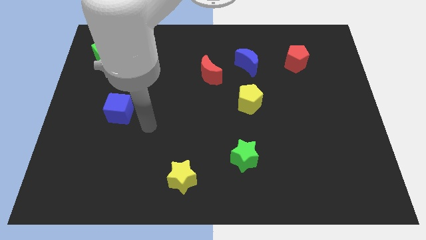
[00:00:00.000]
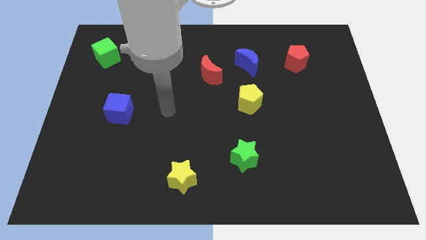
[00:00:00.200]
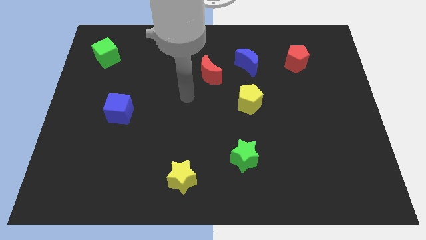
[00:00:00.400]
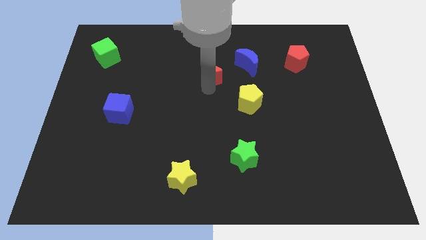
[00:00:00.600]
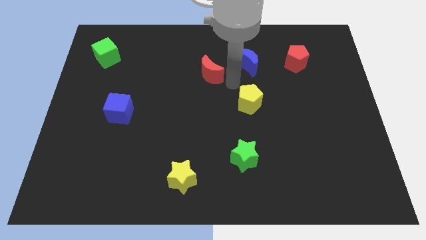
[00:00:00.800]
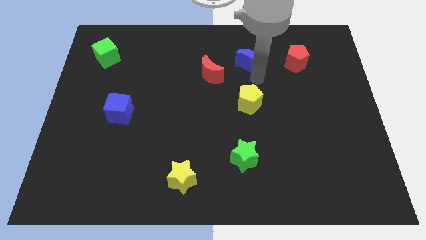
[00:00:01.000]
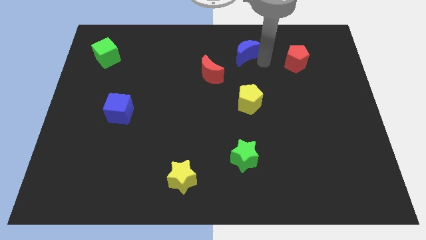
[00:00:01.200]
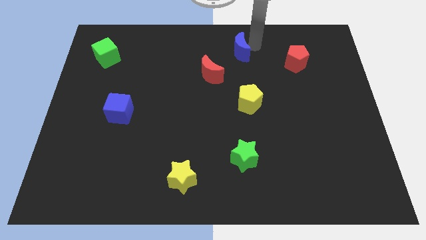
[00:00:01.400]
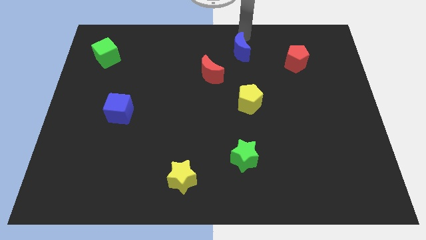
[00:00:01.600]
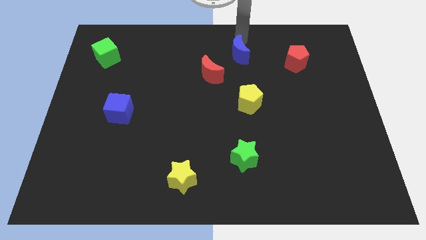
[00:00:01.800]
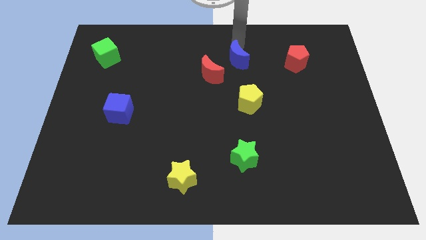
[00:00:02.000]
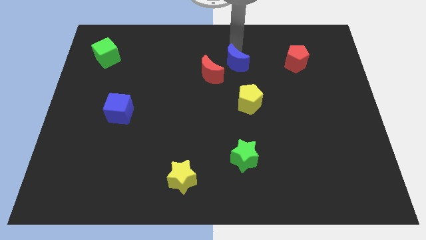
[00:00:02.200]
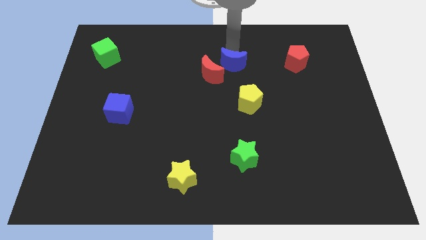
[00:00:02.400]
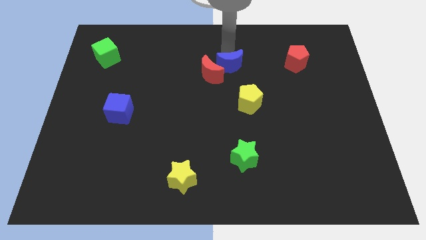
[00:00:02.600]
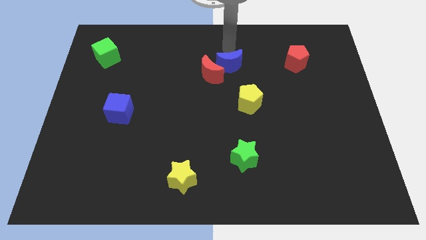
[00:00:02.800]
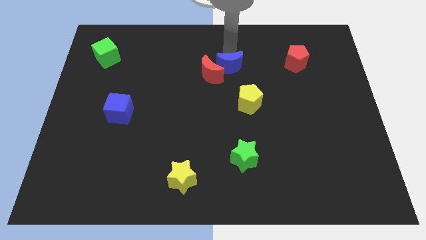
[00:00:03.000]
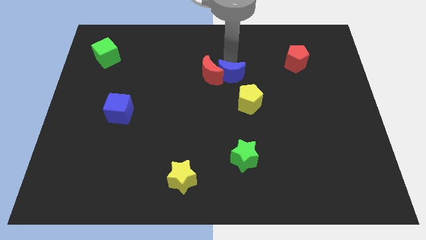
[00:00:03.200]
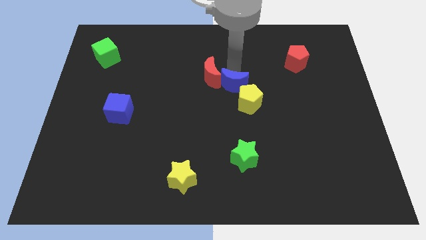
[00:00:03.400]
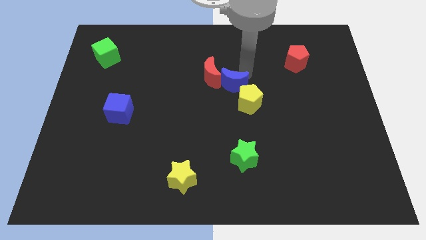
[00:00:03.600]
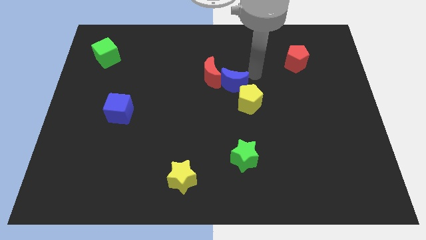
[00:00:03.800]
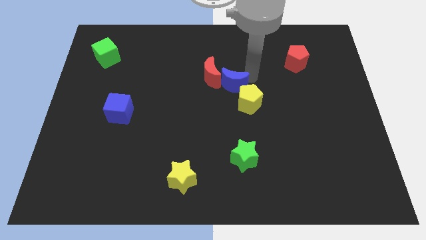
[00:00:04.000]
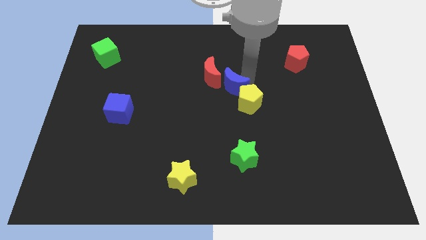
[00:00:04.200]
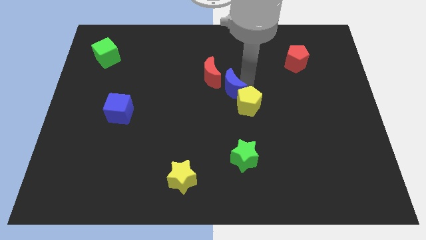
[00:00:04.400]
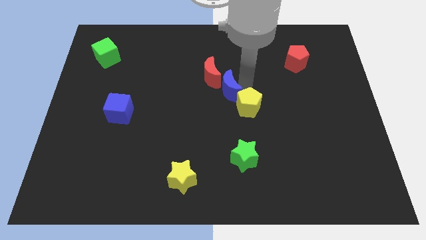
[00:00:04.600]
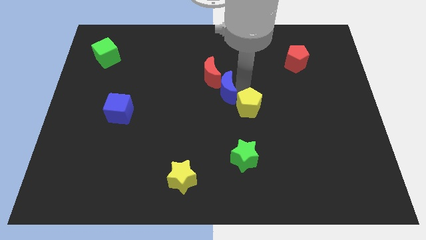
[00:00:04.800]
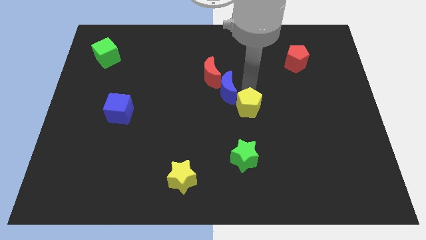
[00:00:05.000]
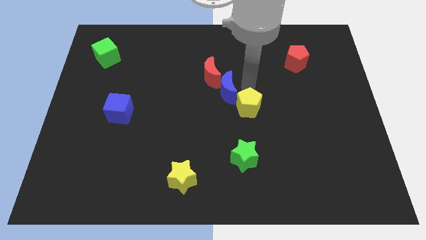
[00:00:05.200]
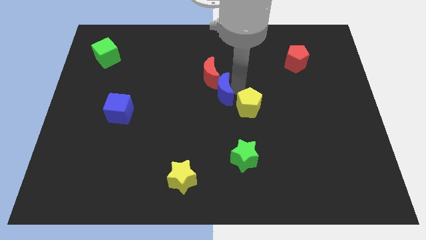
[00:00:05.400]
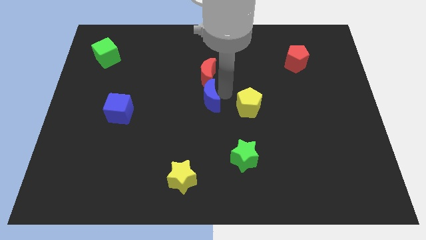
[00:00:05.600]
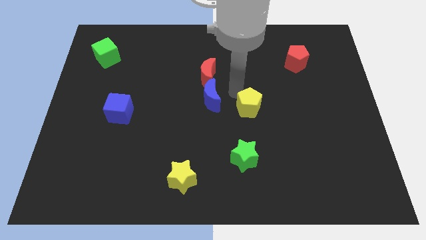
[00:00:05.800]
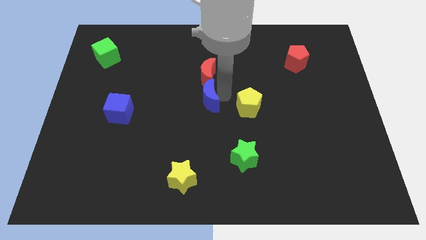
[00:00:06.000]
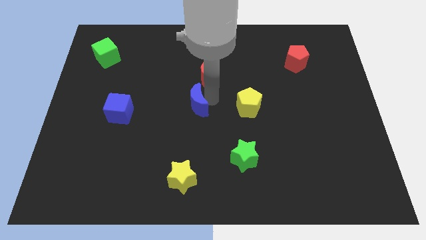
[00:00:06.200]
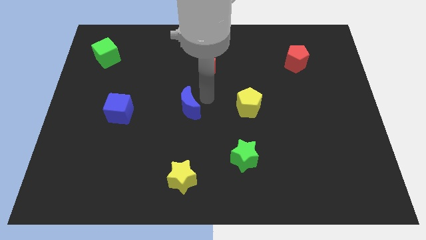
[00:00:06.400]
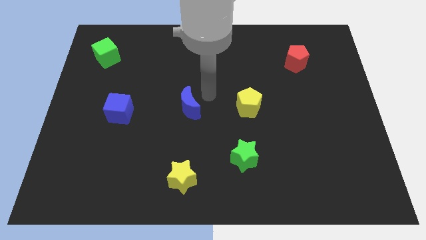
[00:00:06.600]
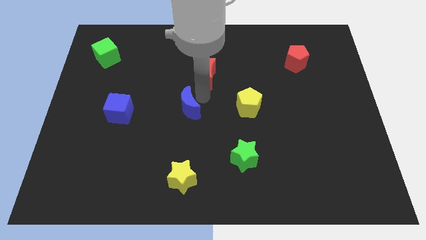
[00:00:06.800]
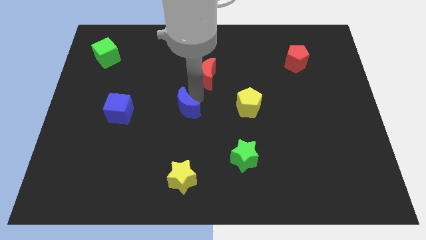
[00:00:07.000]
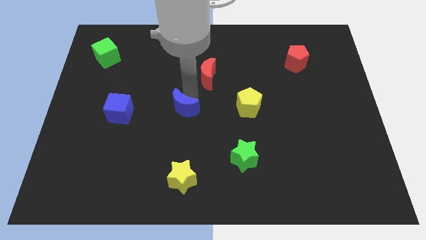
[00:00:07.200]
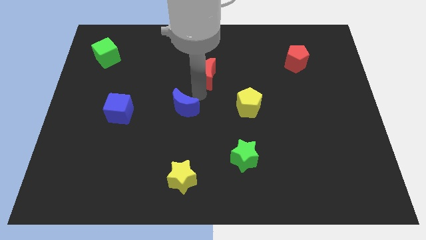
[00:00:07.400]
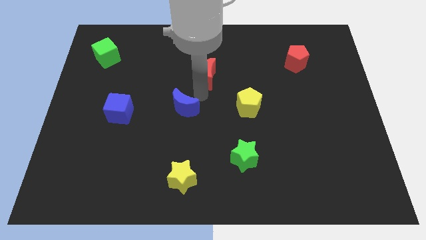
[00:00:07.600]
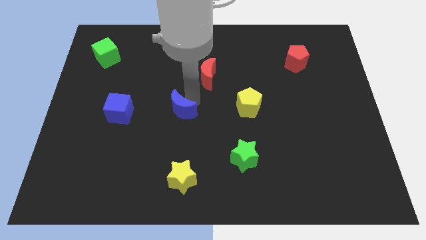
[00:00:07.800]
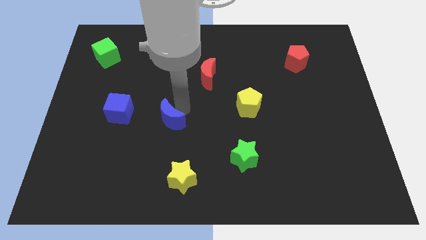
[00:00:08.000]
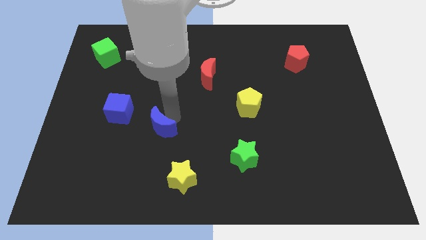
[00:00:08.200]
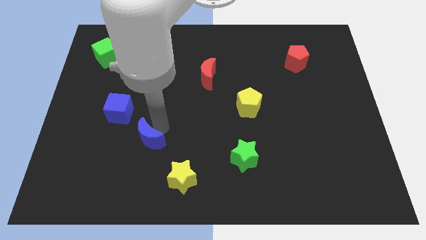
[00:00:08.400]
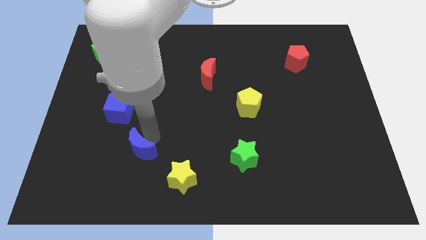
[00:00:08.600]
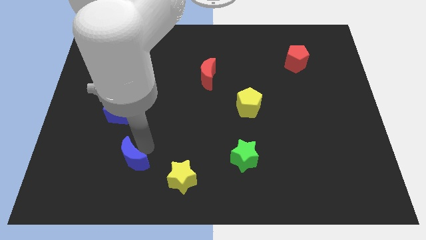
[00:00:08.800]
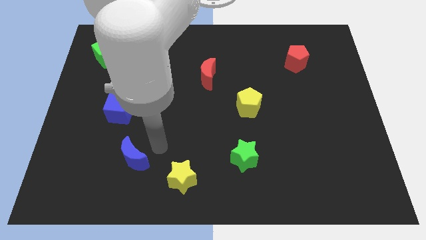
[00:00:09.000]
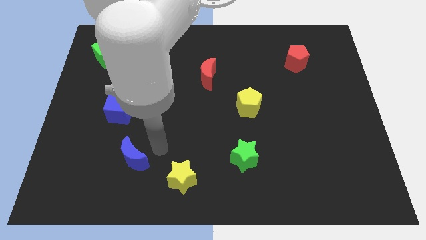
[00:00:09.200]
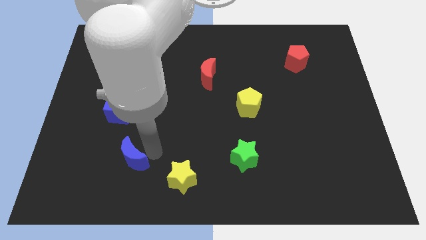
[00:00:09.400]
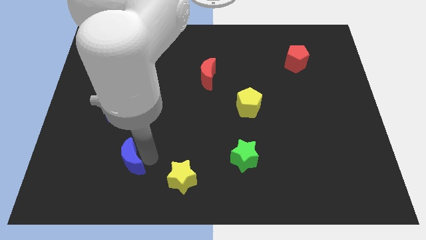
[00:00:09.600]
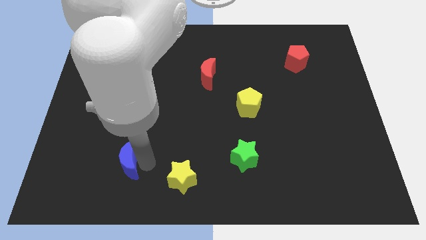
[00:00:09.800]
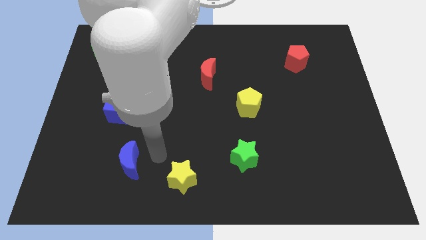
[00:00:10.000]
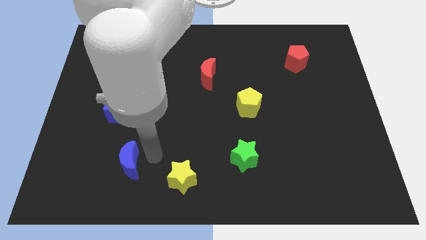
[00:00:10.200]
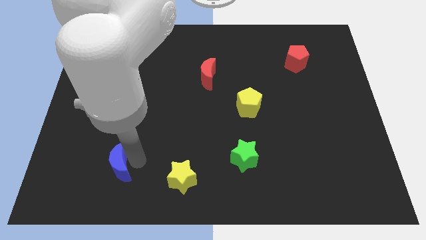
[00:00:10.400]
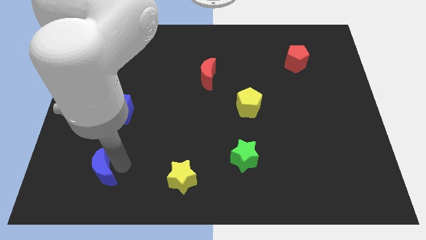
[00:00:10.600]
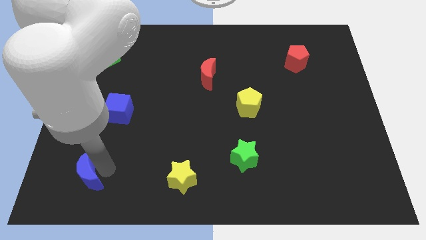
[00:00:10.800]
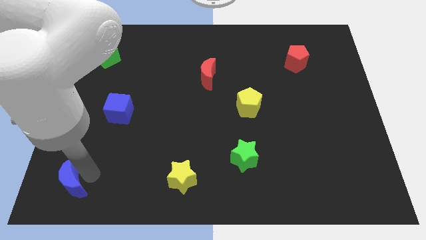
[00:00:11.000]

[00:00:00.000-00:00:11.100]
move the blue moon to the lower left corner

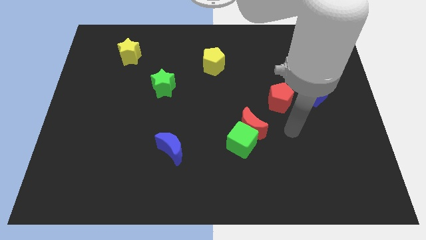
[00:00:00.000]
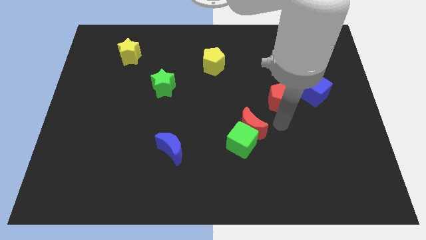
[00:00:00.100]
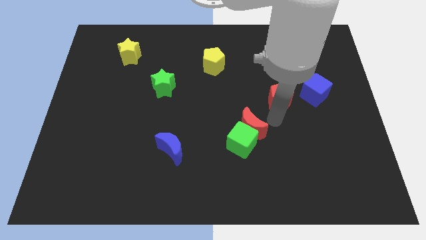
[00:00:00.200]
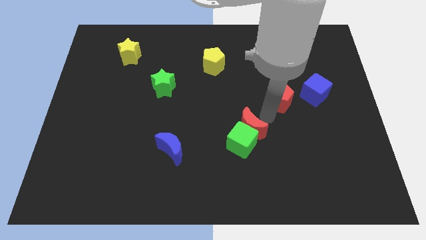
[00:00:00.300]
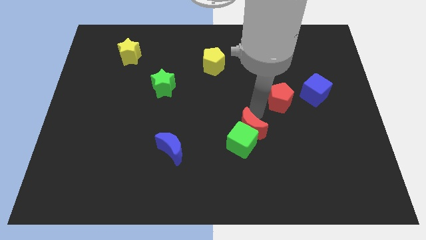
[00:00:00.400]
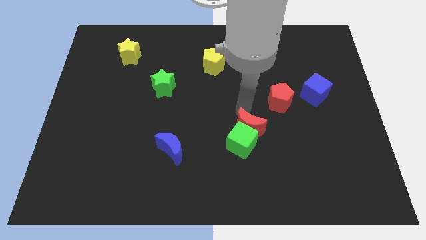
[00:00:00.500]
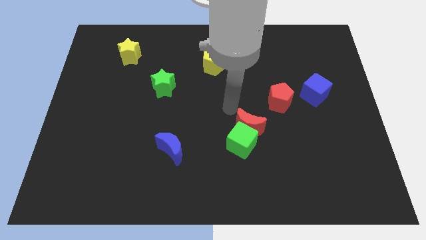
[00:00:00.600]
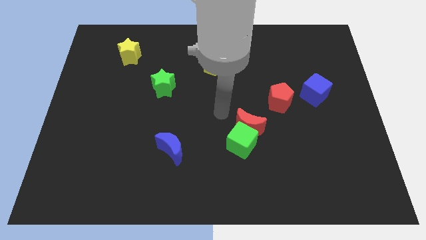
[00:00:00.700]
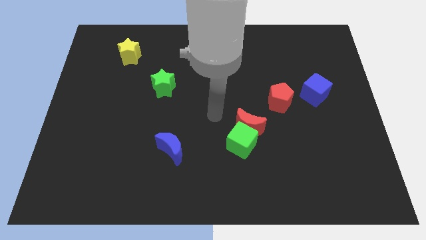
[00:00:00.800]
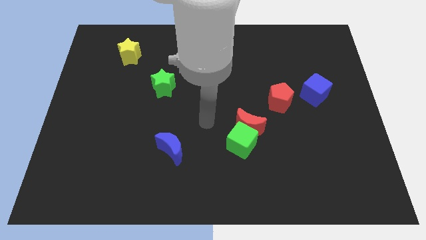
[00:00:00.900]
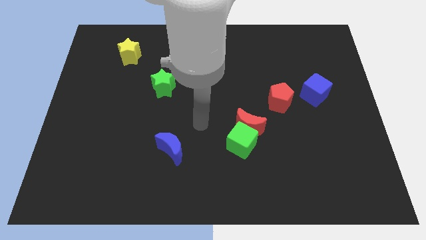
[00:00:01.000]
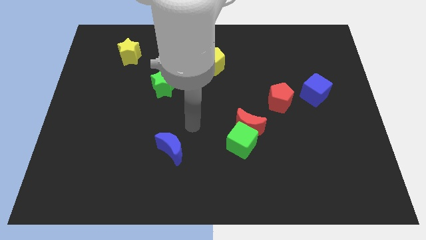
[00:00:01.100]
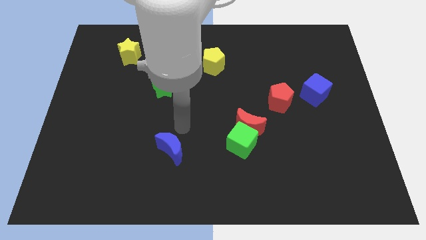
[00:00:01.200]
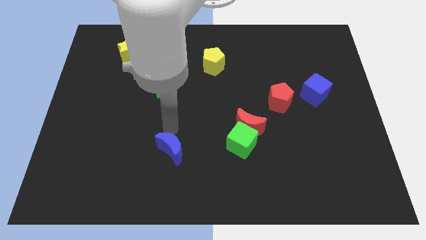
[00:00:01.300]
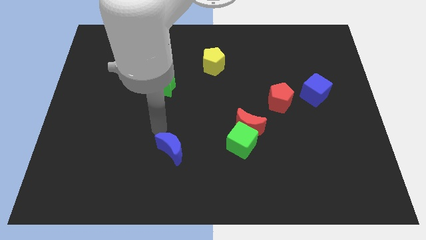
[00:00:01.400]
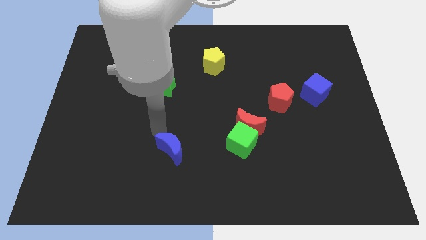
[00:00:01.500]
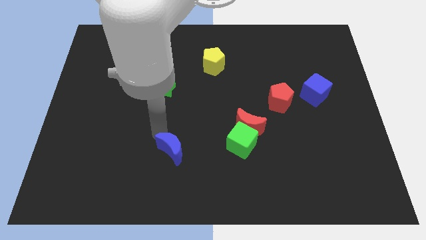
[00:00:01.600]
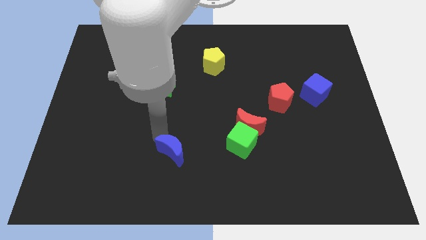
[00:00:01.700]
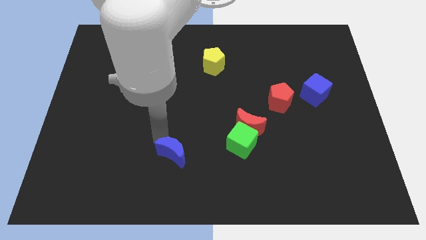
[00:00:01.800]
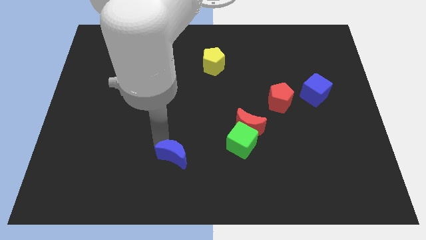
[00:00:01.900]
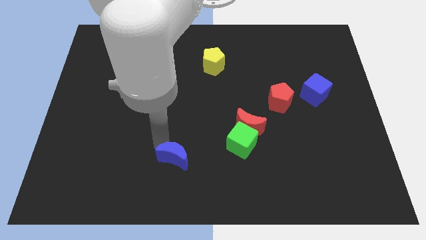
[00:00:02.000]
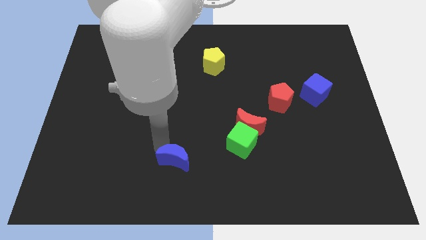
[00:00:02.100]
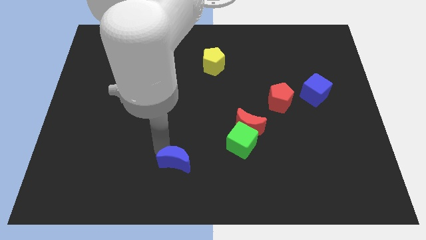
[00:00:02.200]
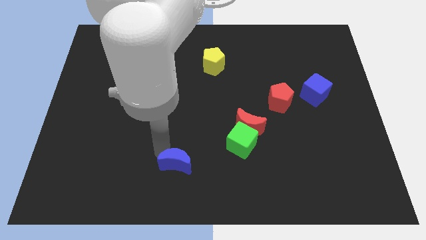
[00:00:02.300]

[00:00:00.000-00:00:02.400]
push the blue moon to the bottom
